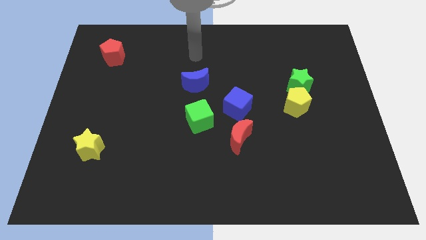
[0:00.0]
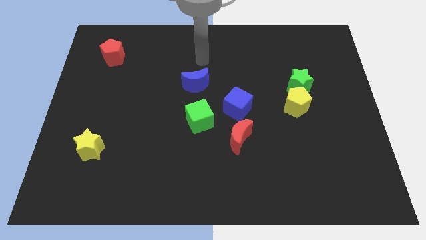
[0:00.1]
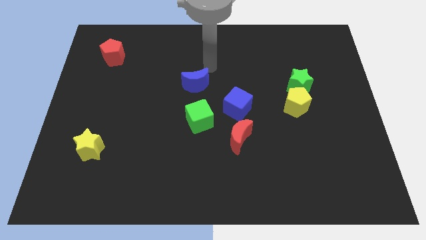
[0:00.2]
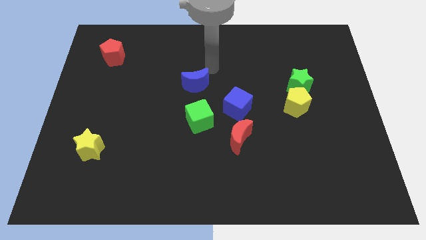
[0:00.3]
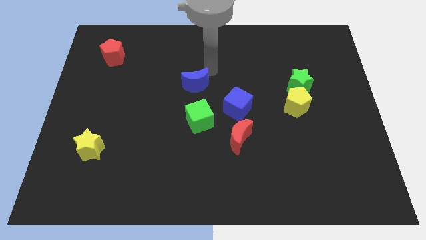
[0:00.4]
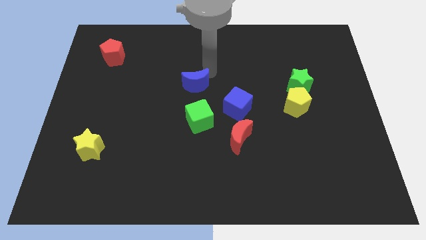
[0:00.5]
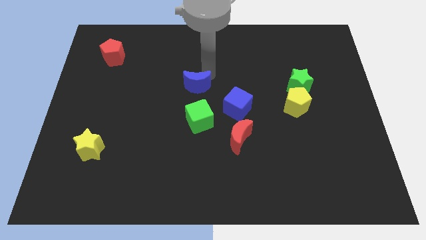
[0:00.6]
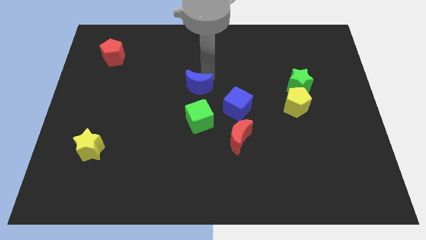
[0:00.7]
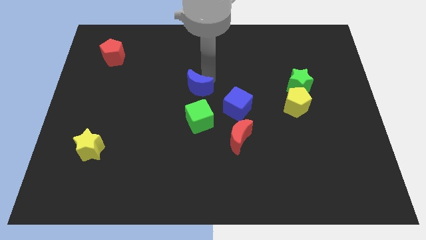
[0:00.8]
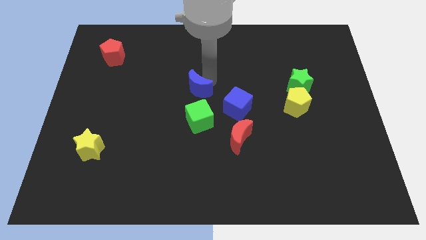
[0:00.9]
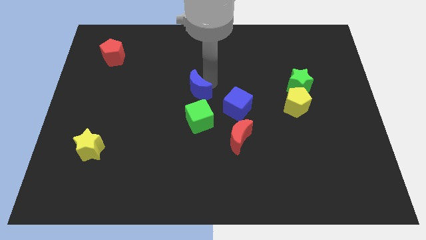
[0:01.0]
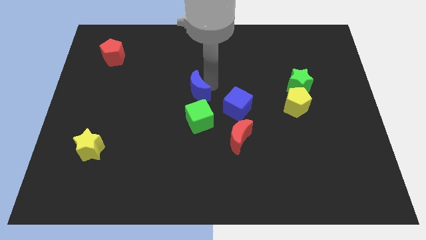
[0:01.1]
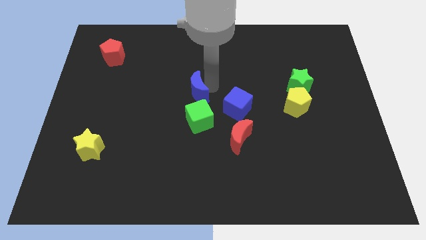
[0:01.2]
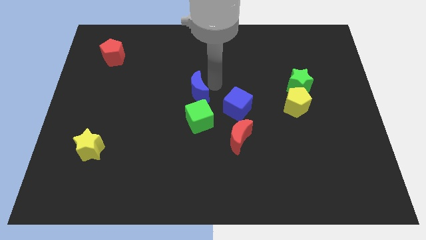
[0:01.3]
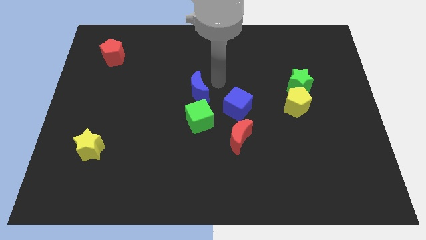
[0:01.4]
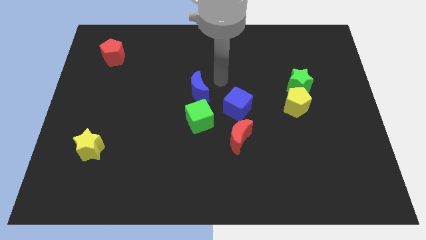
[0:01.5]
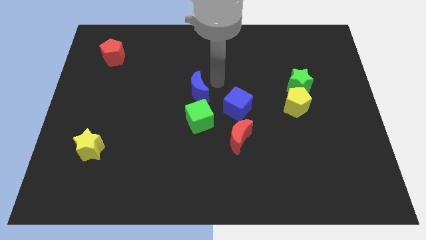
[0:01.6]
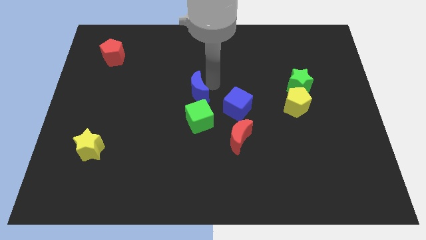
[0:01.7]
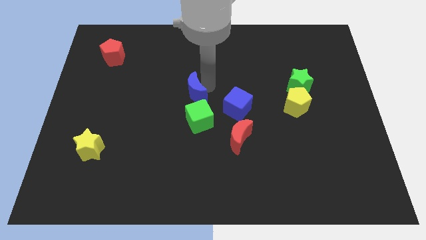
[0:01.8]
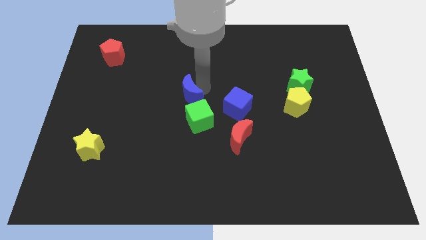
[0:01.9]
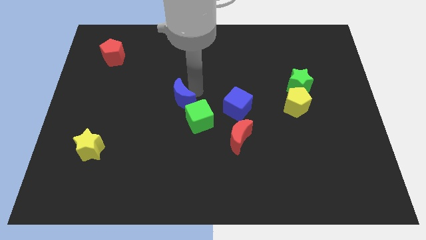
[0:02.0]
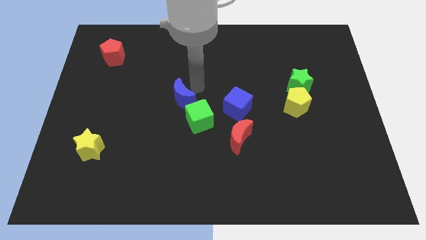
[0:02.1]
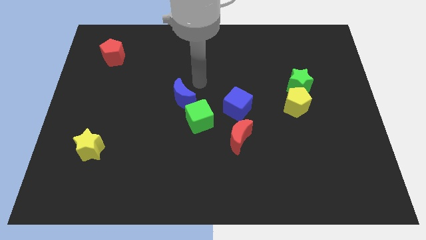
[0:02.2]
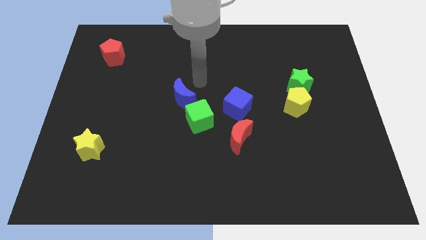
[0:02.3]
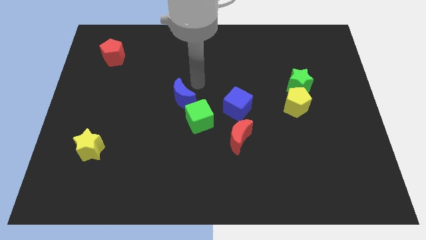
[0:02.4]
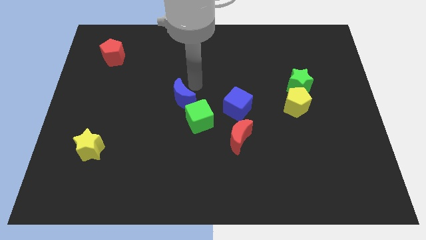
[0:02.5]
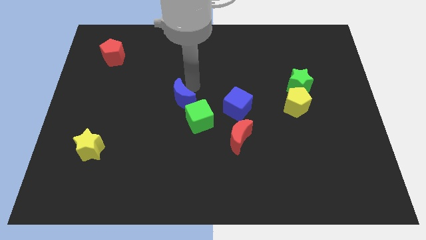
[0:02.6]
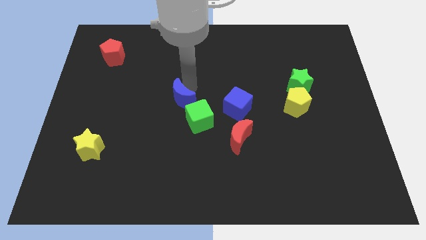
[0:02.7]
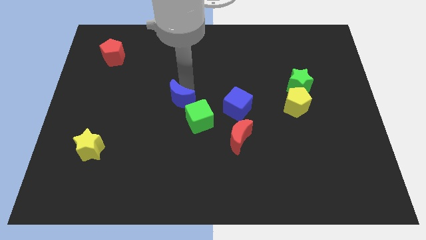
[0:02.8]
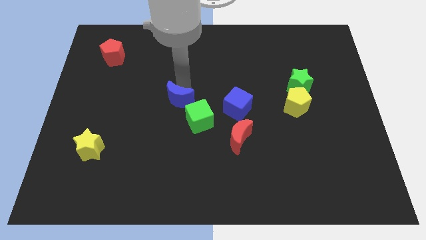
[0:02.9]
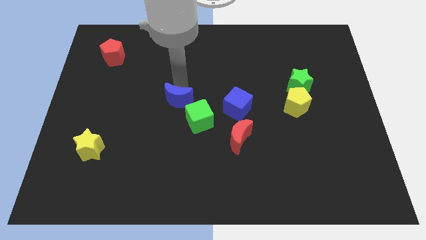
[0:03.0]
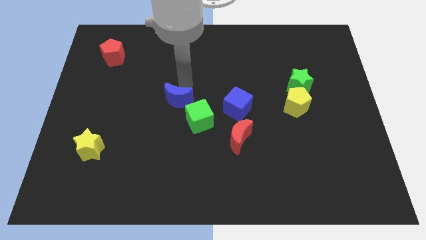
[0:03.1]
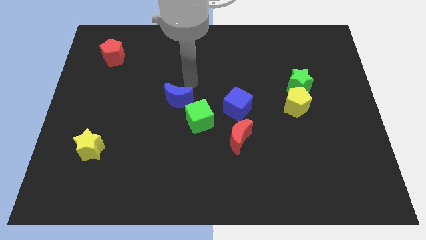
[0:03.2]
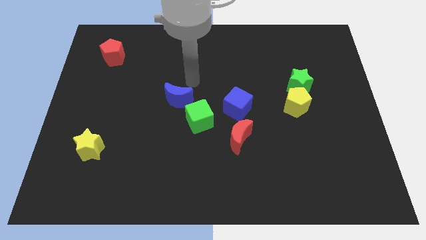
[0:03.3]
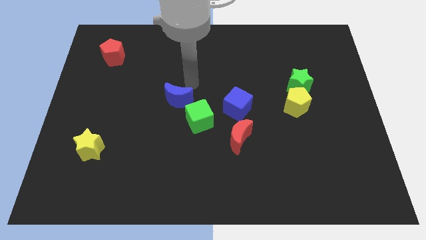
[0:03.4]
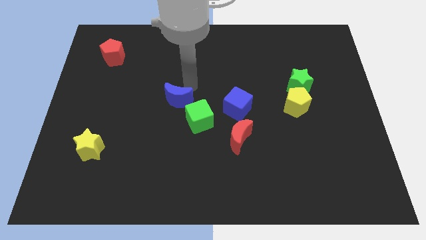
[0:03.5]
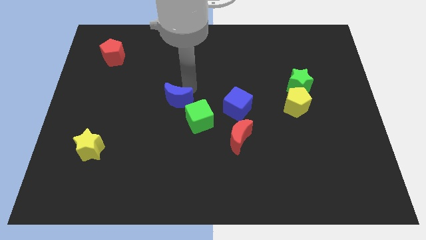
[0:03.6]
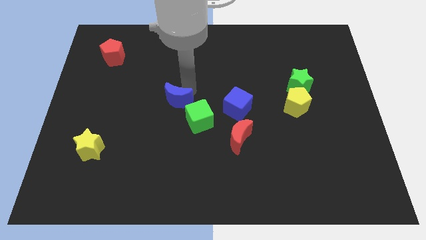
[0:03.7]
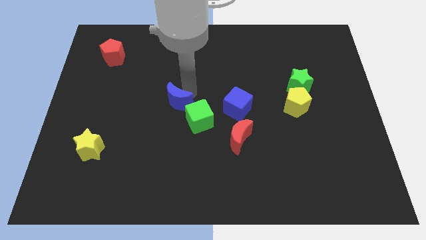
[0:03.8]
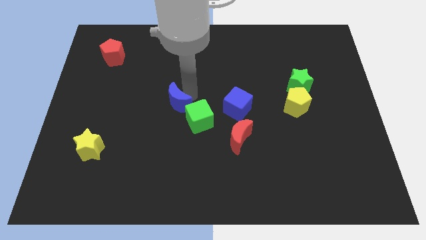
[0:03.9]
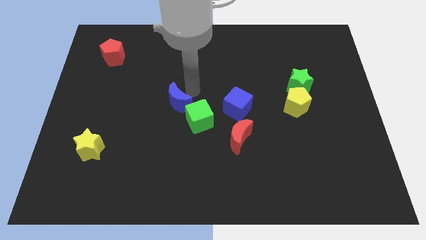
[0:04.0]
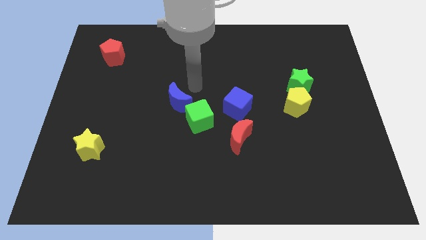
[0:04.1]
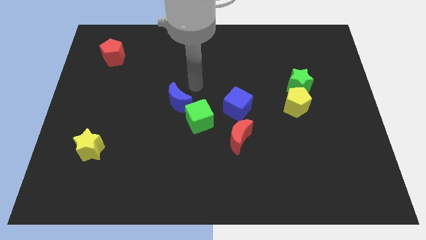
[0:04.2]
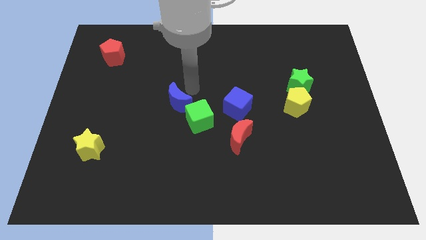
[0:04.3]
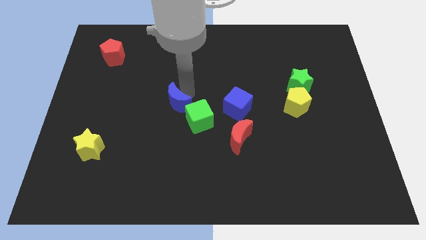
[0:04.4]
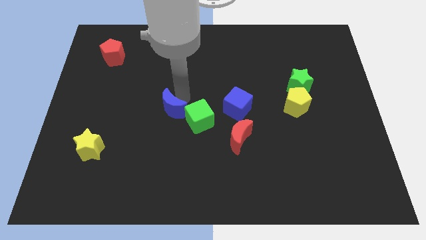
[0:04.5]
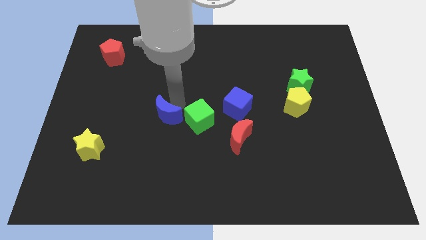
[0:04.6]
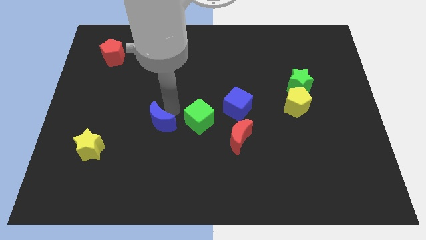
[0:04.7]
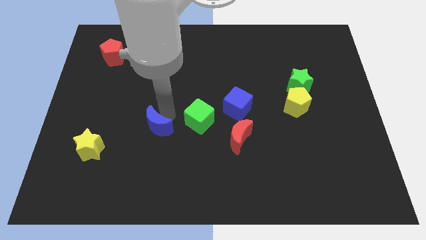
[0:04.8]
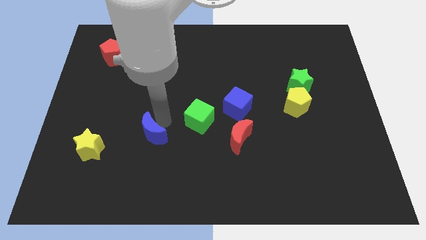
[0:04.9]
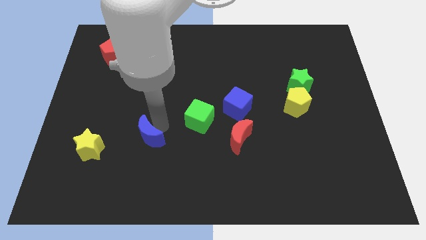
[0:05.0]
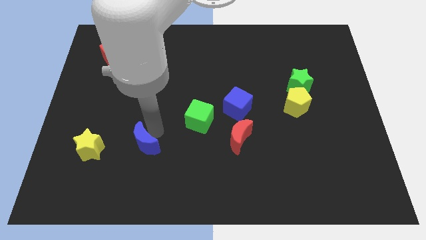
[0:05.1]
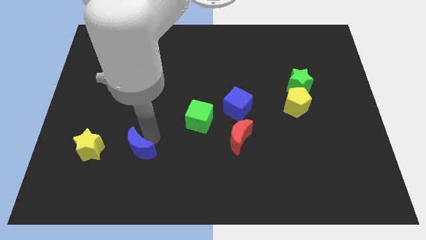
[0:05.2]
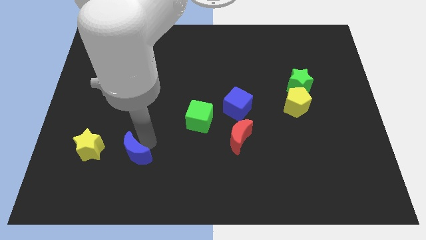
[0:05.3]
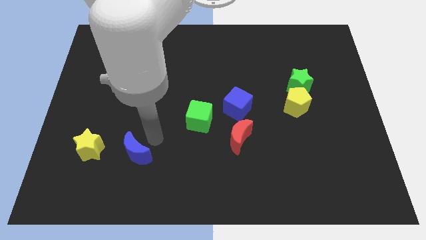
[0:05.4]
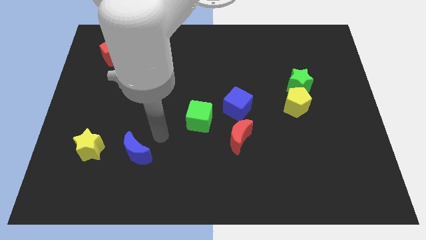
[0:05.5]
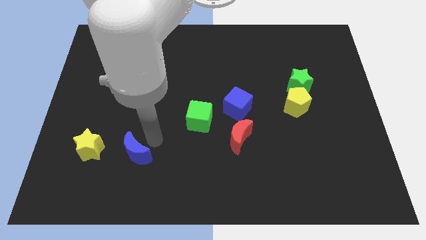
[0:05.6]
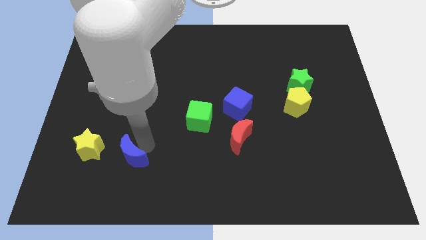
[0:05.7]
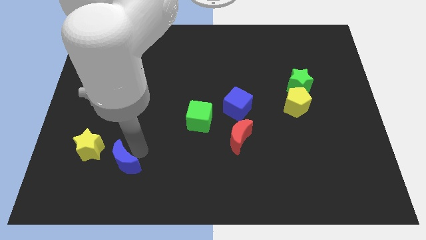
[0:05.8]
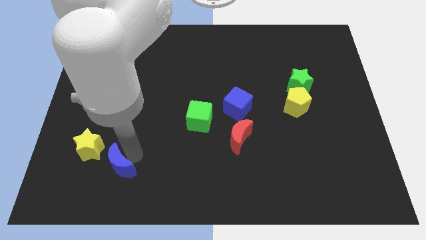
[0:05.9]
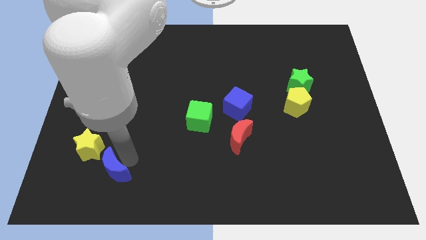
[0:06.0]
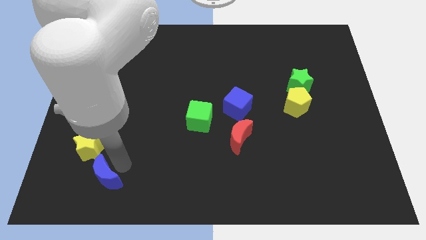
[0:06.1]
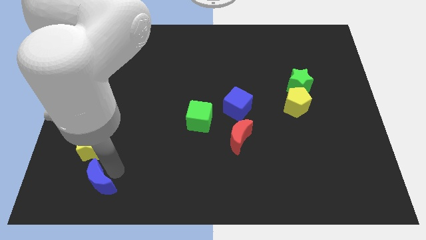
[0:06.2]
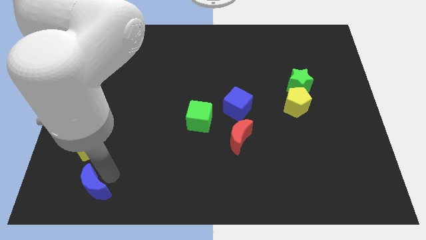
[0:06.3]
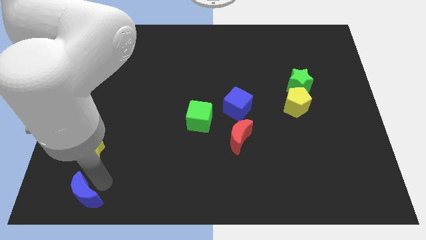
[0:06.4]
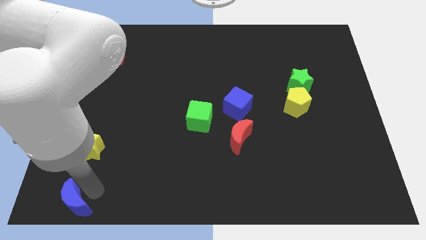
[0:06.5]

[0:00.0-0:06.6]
slide the blue moon to the bottom left corner
